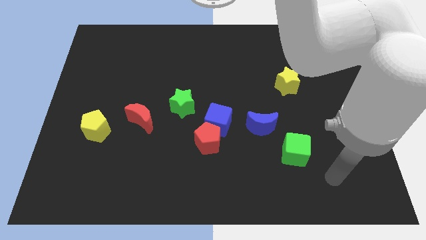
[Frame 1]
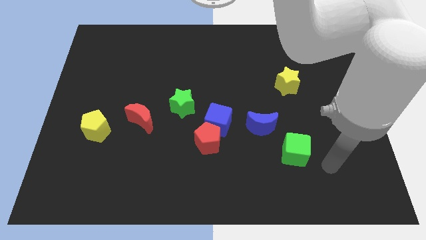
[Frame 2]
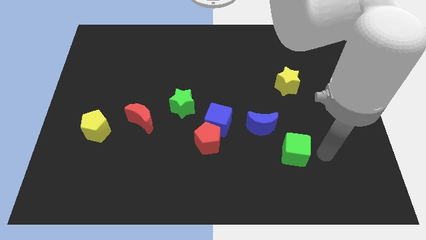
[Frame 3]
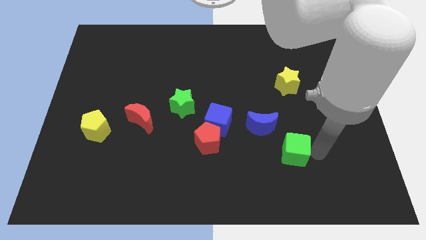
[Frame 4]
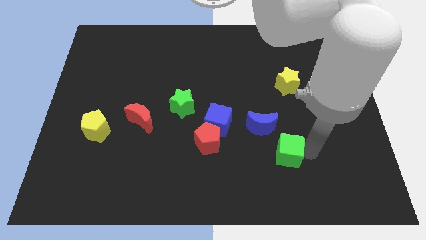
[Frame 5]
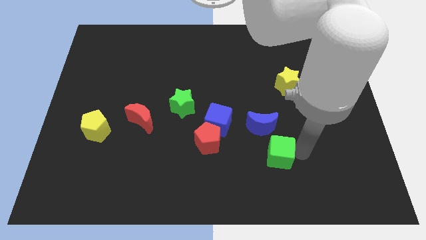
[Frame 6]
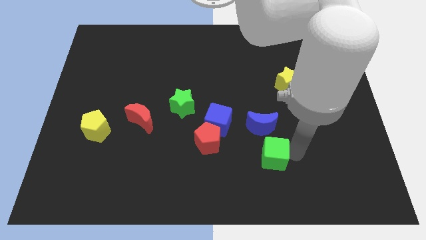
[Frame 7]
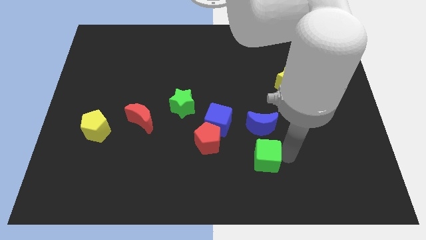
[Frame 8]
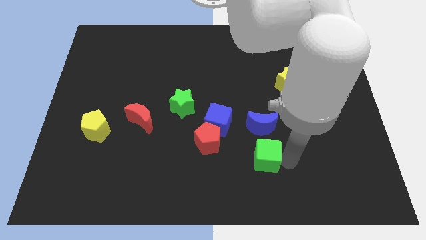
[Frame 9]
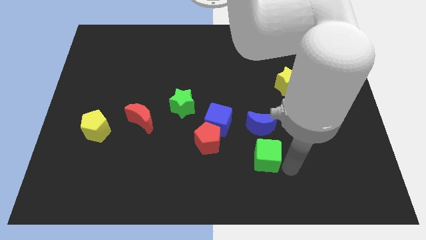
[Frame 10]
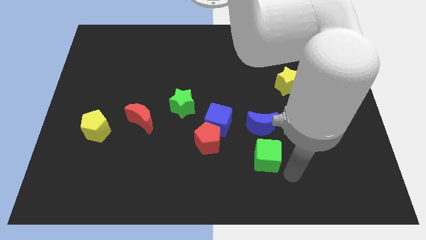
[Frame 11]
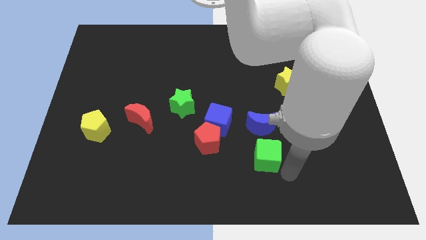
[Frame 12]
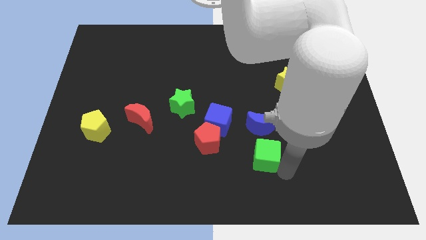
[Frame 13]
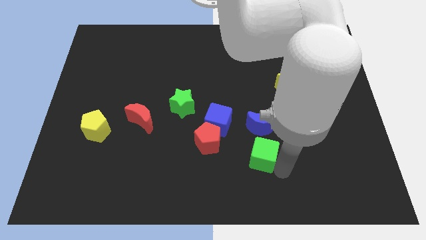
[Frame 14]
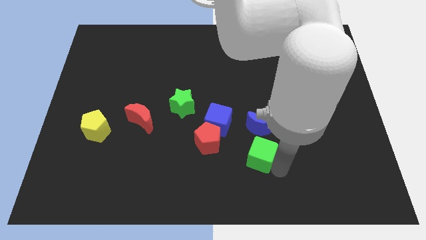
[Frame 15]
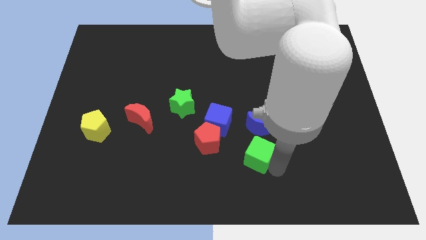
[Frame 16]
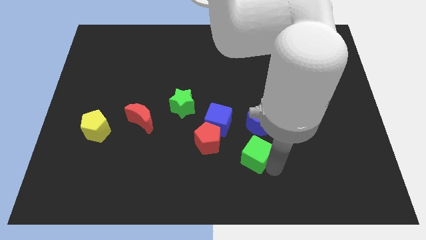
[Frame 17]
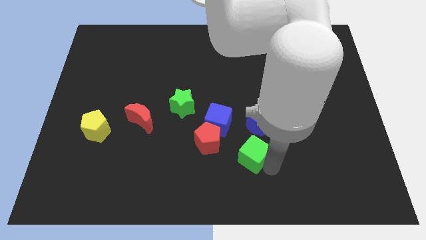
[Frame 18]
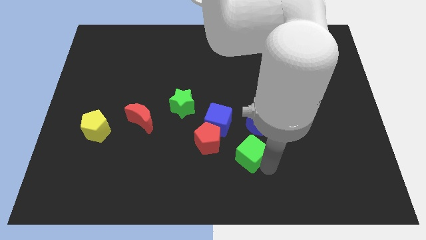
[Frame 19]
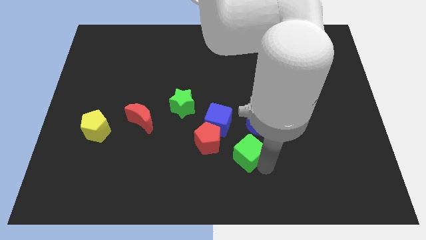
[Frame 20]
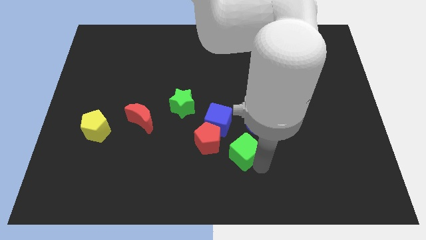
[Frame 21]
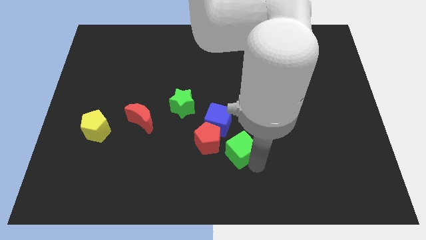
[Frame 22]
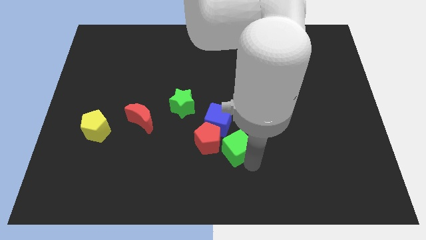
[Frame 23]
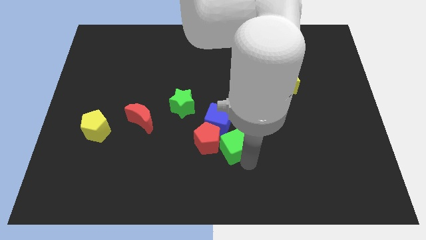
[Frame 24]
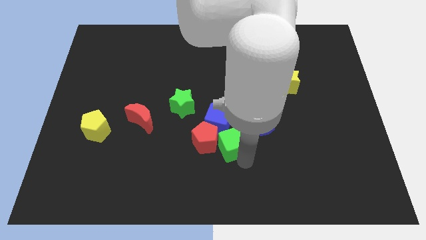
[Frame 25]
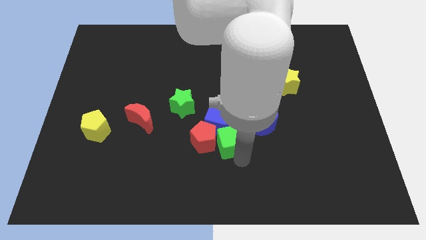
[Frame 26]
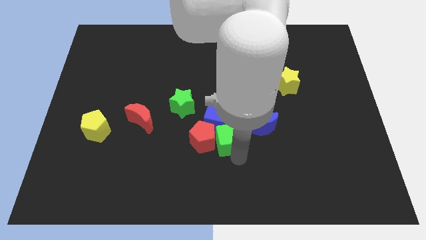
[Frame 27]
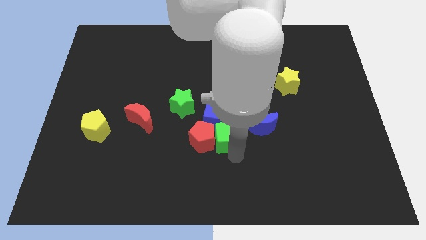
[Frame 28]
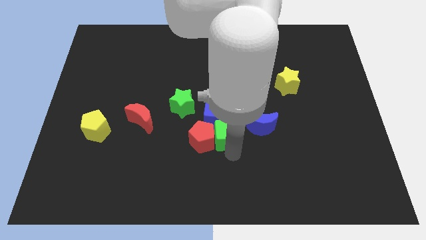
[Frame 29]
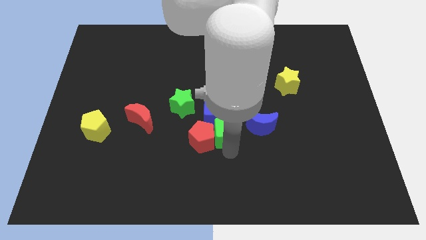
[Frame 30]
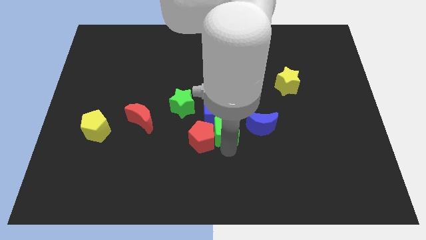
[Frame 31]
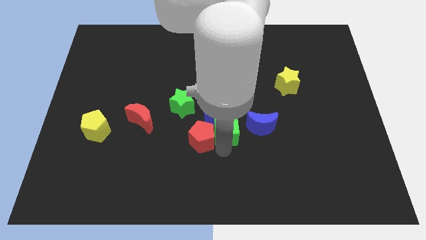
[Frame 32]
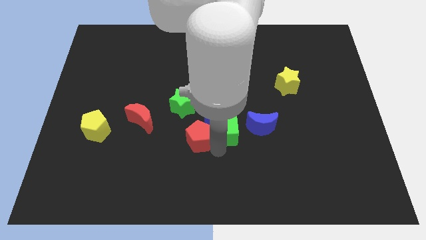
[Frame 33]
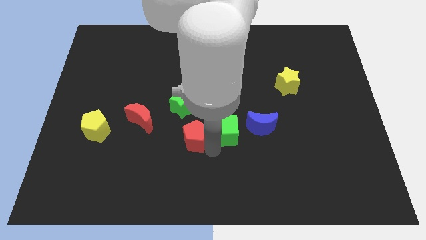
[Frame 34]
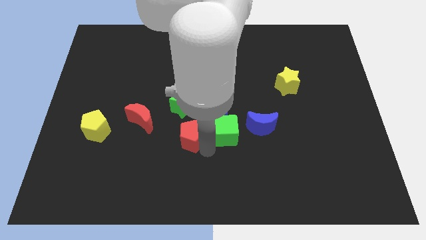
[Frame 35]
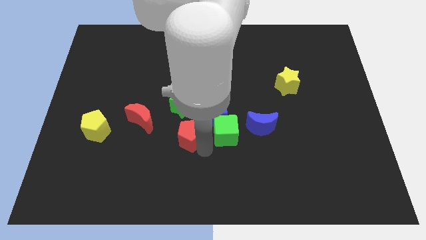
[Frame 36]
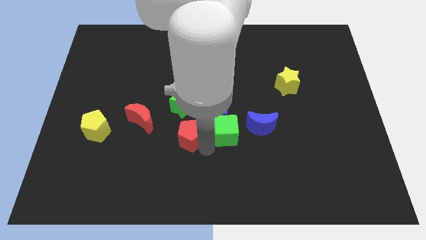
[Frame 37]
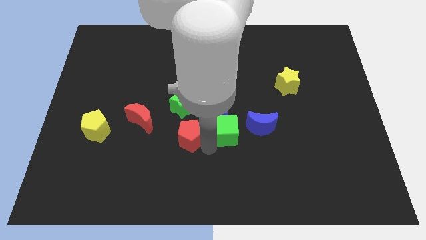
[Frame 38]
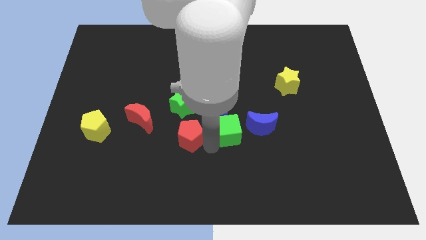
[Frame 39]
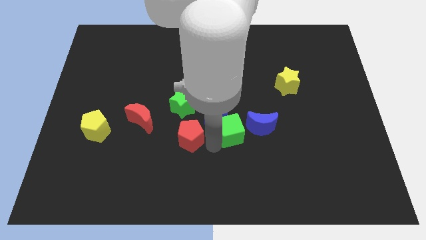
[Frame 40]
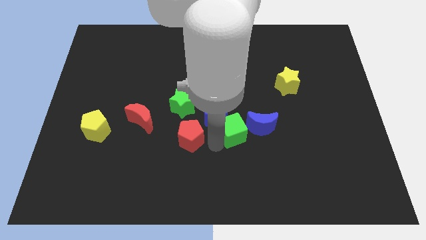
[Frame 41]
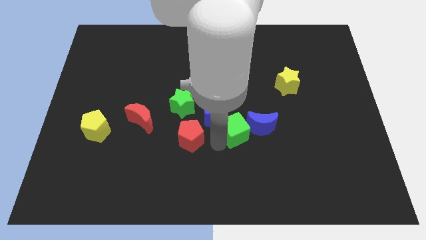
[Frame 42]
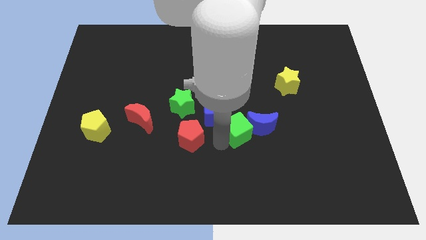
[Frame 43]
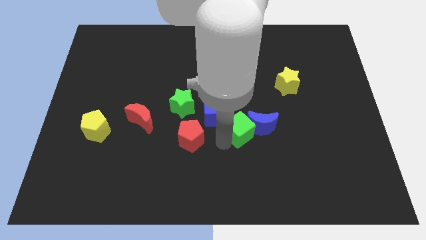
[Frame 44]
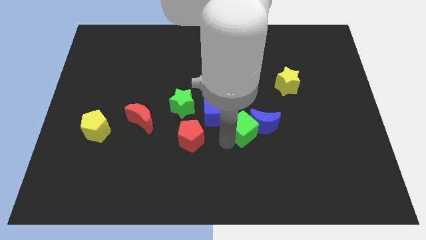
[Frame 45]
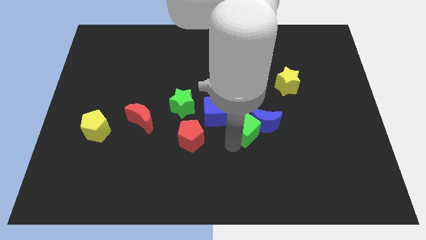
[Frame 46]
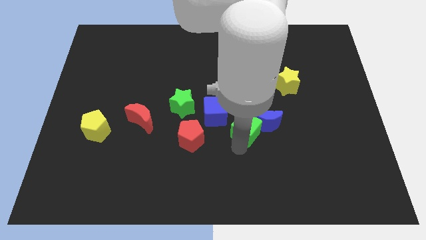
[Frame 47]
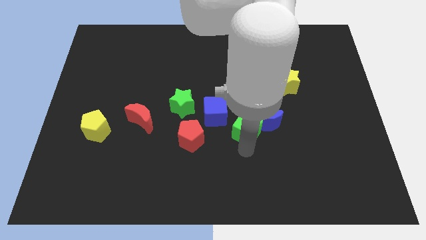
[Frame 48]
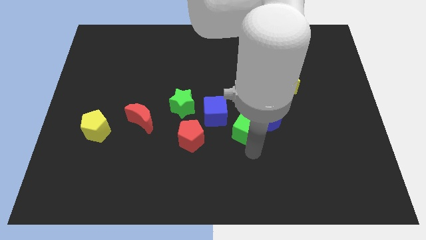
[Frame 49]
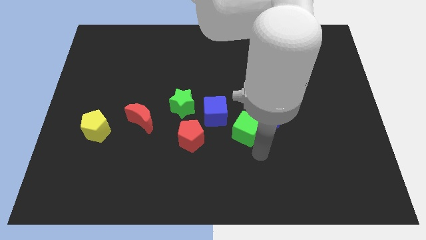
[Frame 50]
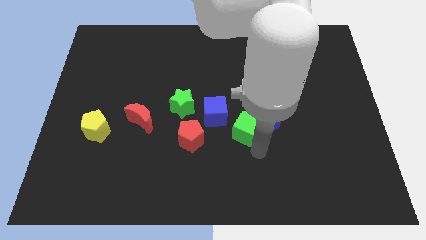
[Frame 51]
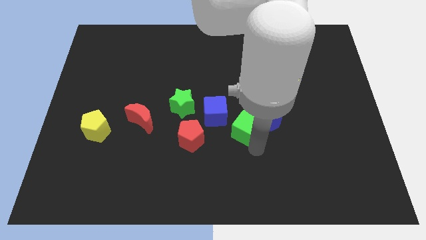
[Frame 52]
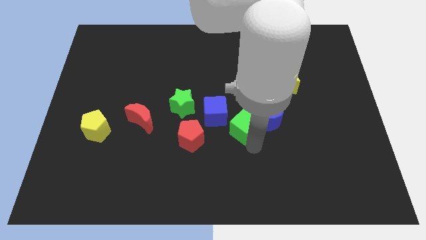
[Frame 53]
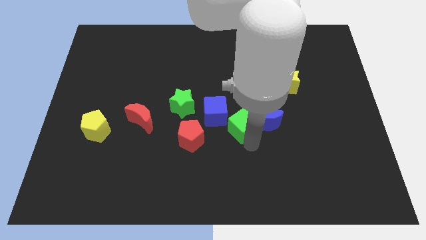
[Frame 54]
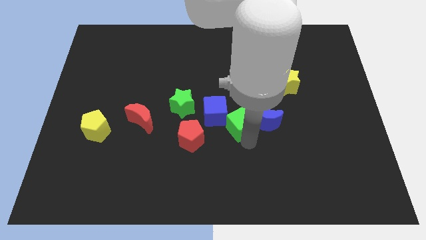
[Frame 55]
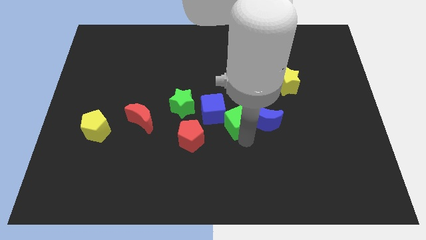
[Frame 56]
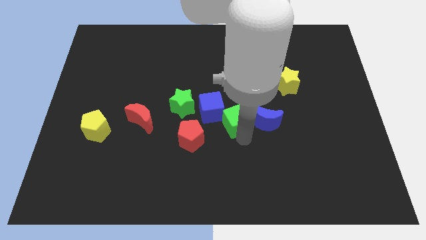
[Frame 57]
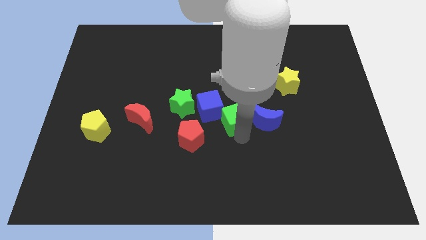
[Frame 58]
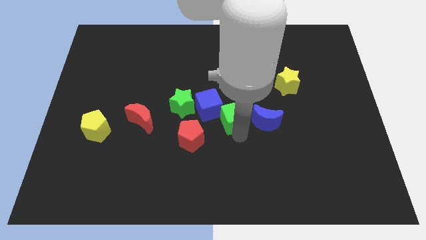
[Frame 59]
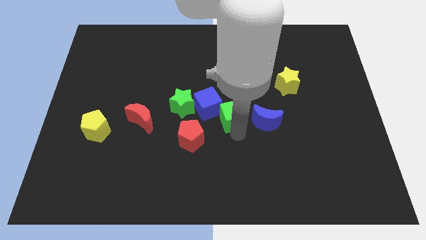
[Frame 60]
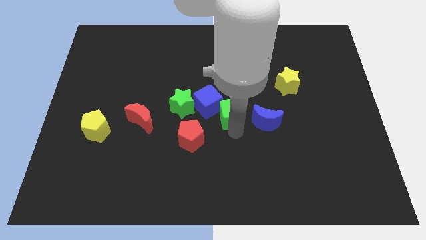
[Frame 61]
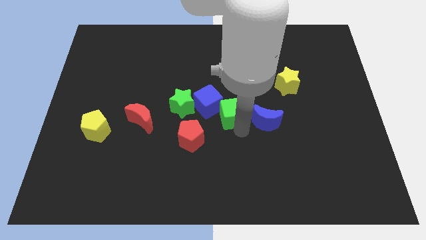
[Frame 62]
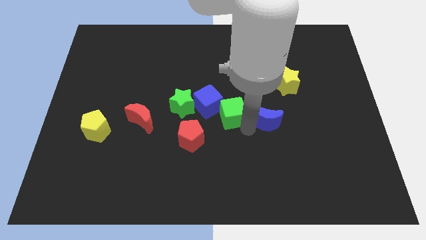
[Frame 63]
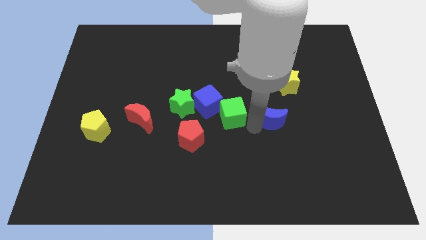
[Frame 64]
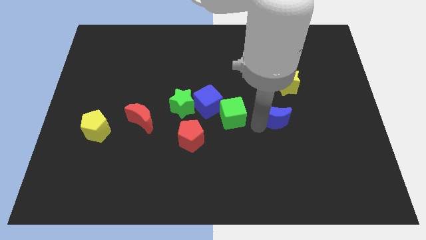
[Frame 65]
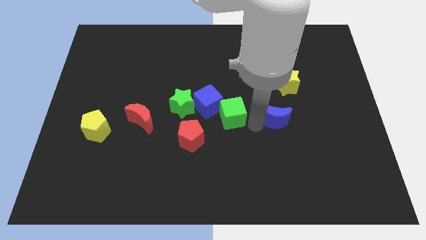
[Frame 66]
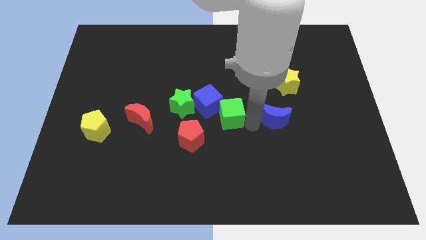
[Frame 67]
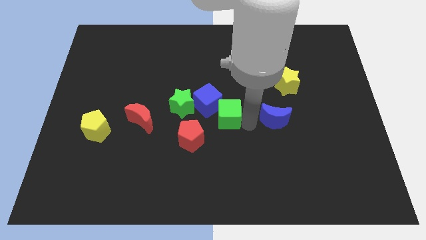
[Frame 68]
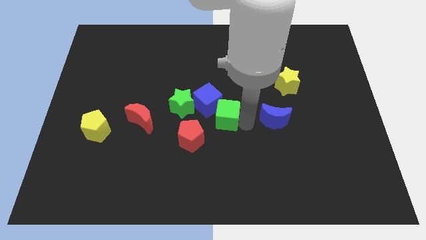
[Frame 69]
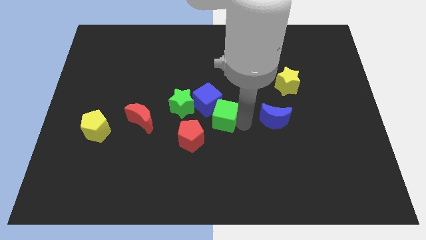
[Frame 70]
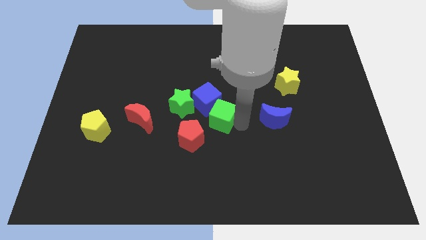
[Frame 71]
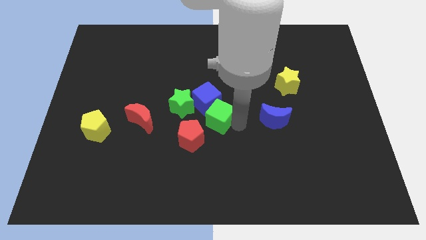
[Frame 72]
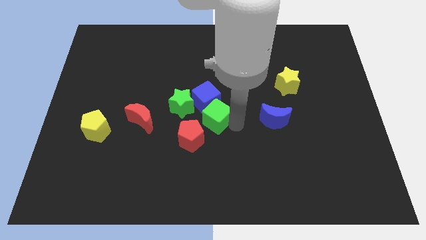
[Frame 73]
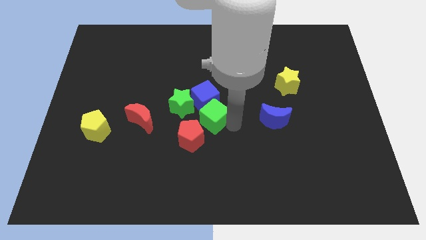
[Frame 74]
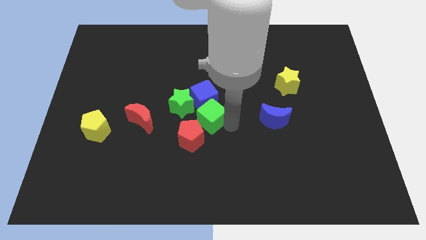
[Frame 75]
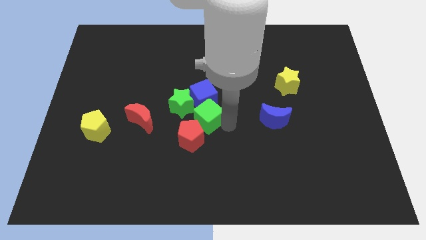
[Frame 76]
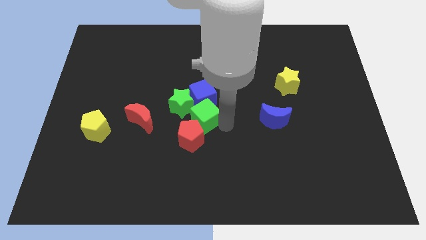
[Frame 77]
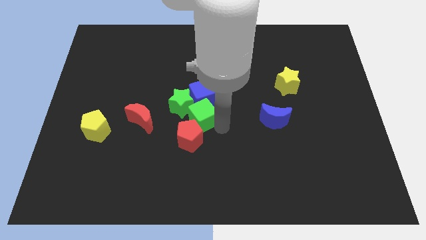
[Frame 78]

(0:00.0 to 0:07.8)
slide the green cube to the green star
